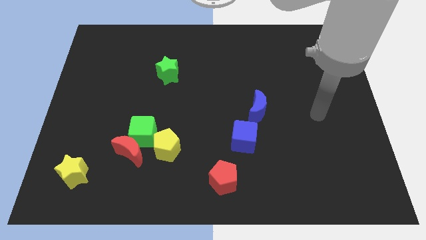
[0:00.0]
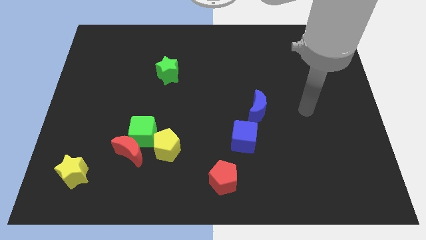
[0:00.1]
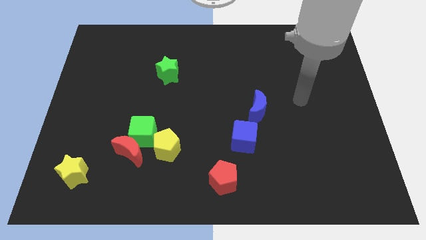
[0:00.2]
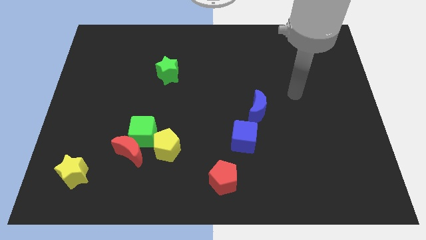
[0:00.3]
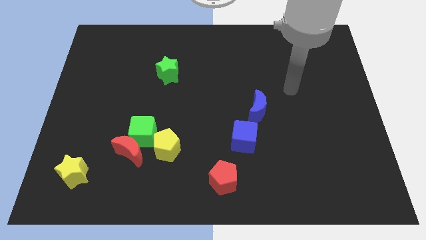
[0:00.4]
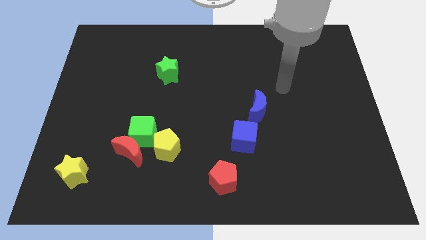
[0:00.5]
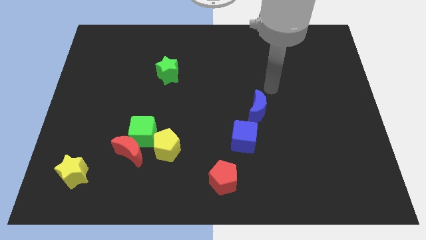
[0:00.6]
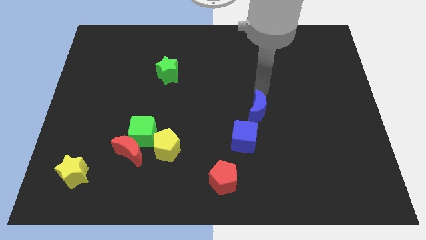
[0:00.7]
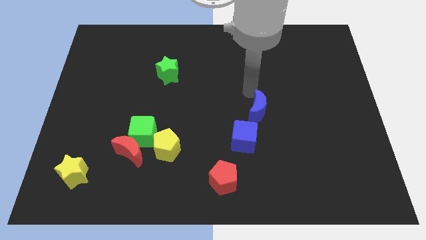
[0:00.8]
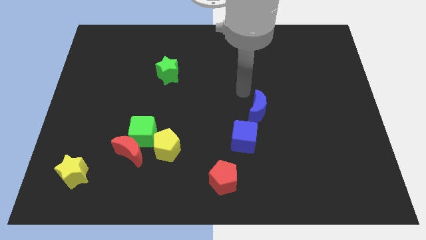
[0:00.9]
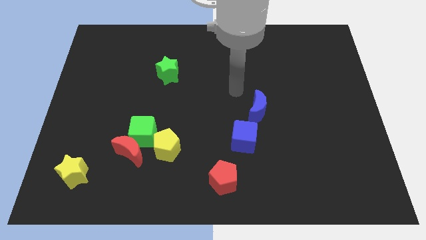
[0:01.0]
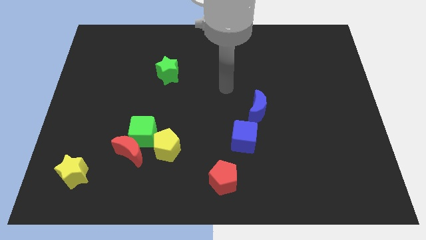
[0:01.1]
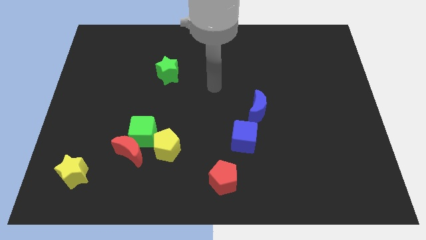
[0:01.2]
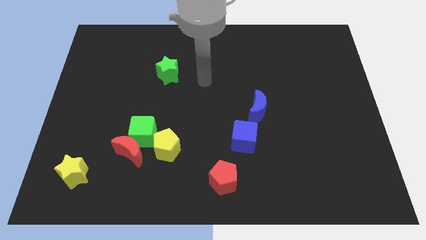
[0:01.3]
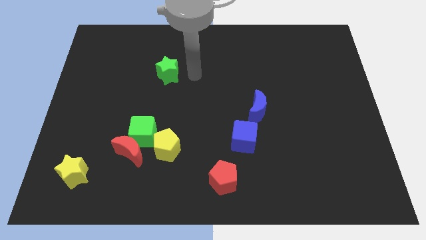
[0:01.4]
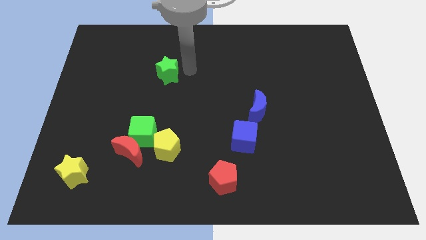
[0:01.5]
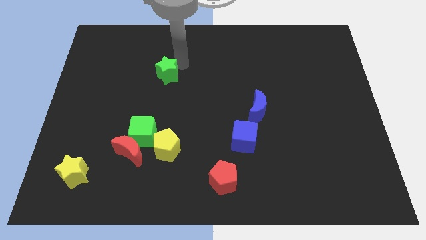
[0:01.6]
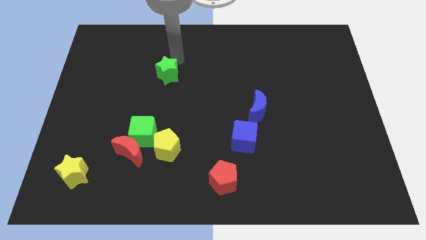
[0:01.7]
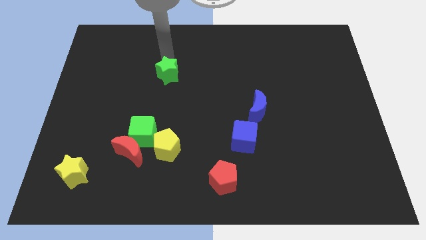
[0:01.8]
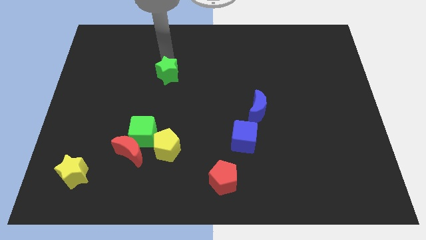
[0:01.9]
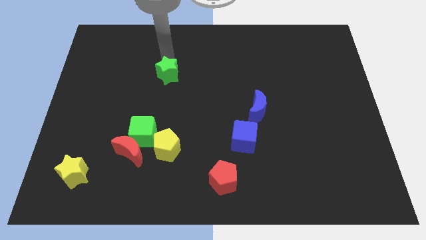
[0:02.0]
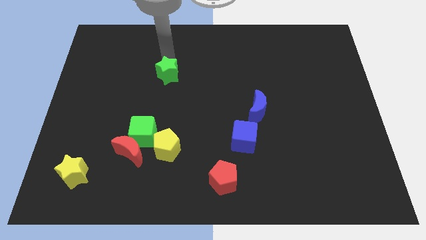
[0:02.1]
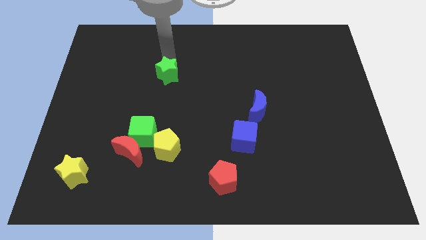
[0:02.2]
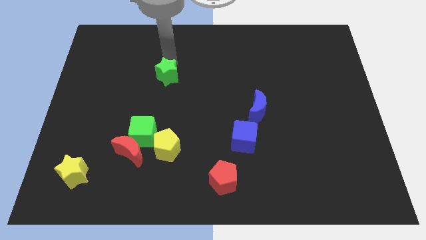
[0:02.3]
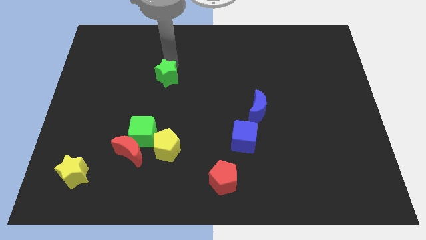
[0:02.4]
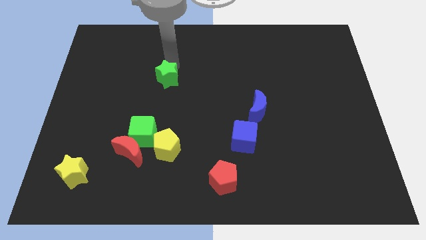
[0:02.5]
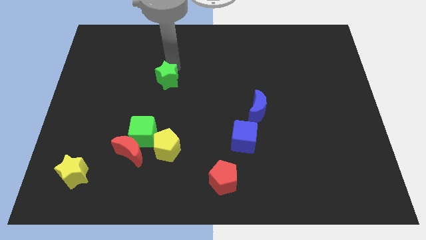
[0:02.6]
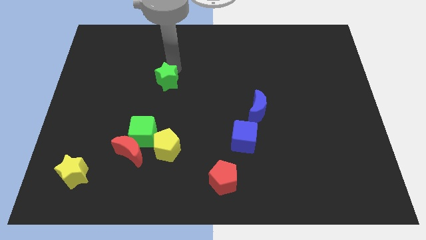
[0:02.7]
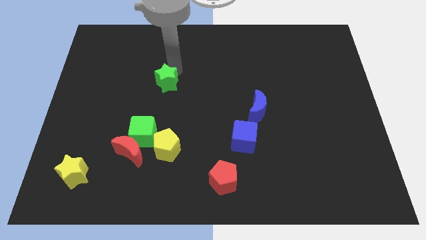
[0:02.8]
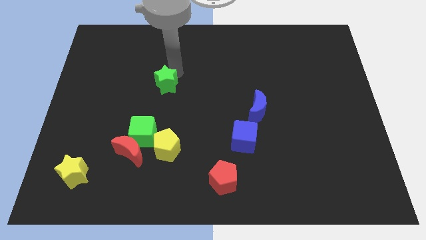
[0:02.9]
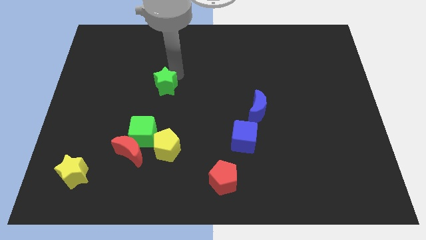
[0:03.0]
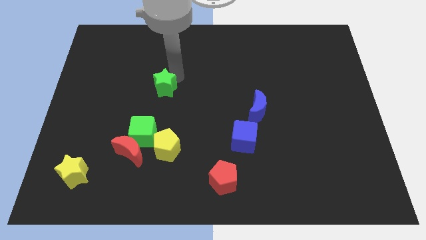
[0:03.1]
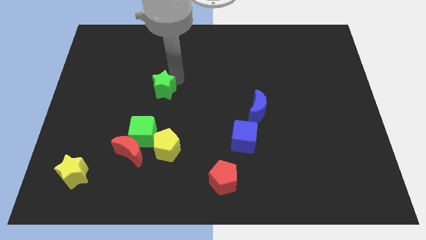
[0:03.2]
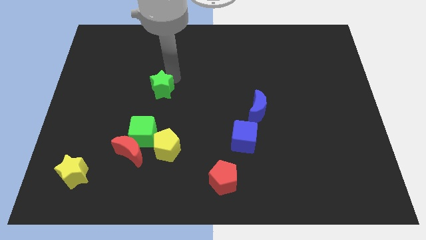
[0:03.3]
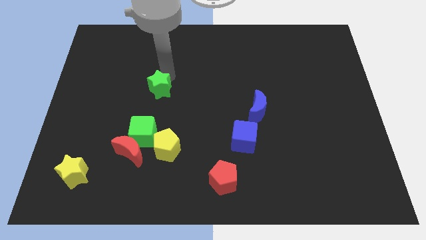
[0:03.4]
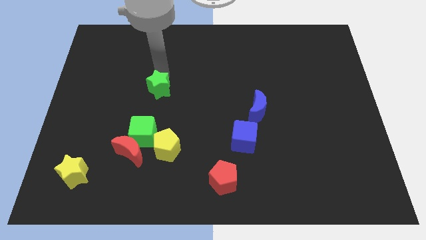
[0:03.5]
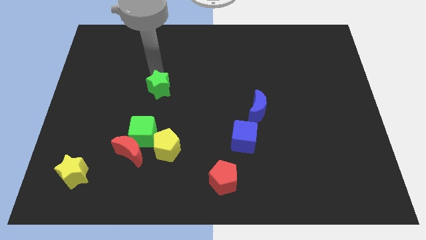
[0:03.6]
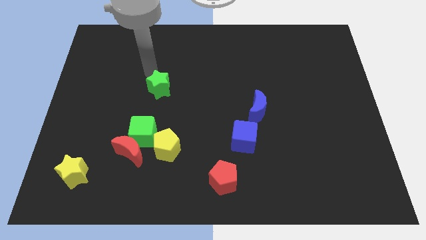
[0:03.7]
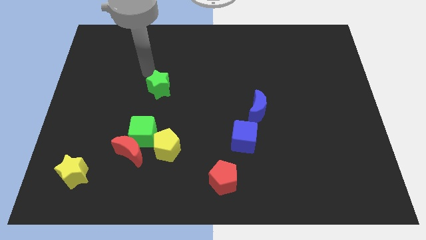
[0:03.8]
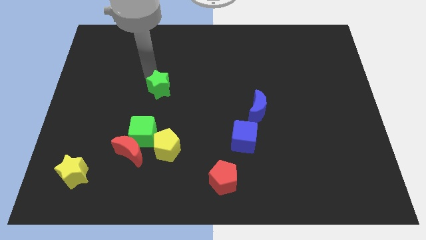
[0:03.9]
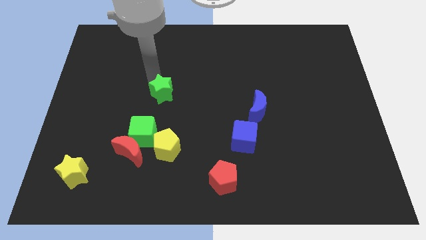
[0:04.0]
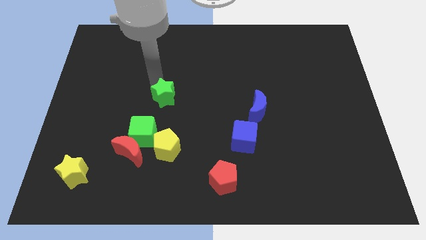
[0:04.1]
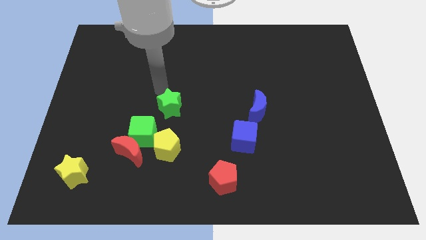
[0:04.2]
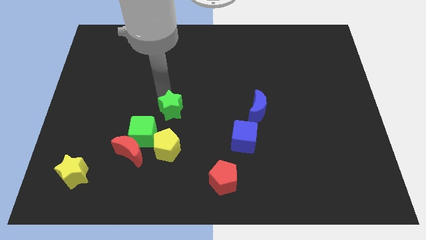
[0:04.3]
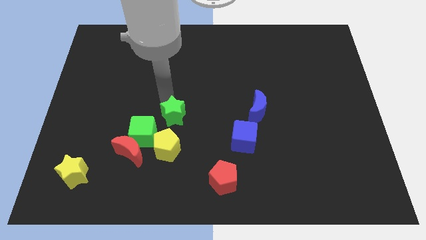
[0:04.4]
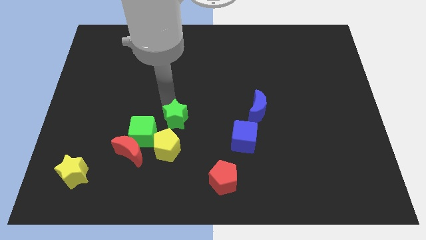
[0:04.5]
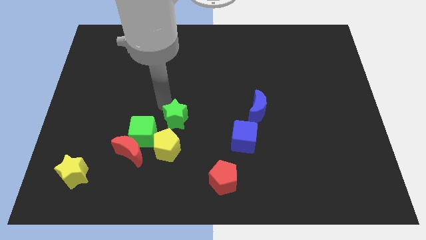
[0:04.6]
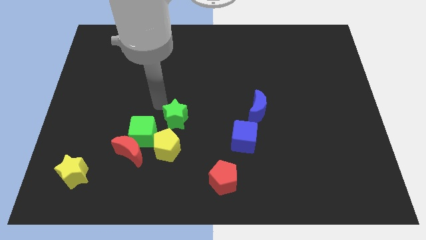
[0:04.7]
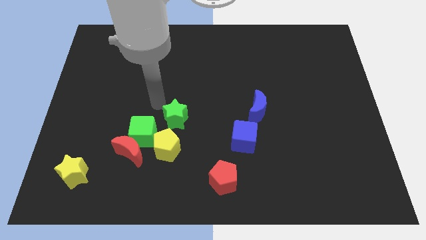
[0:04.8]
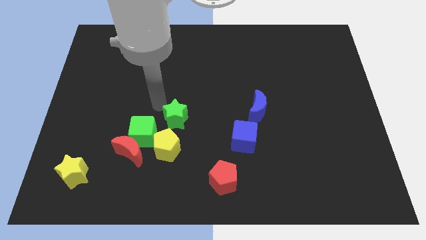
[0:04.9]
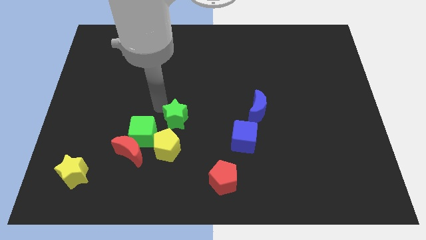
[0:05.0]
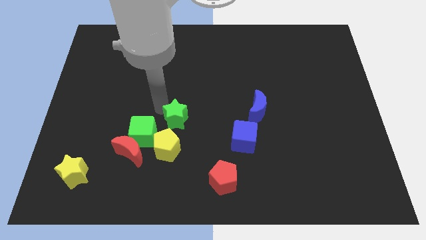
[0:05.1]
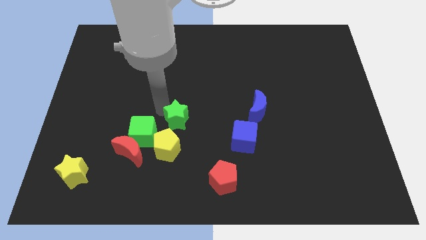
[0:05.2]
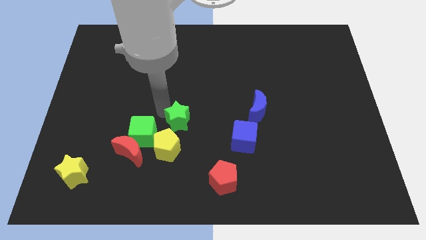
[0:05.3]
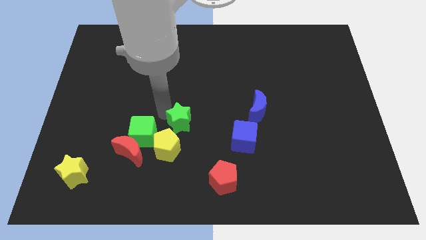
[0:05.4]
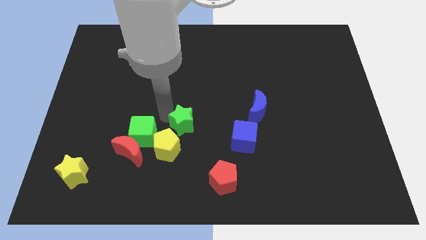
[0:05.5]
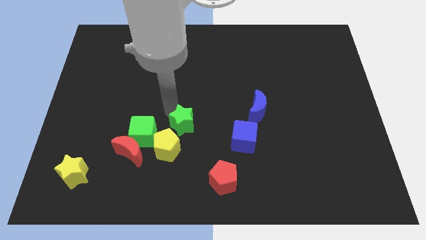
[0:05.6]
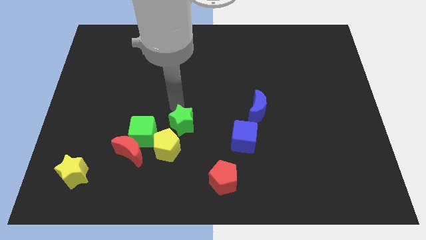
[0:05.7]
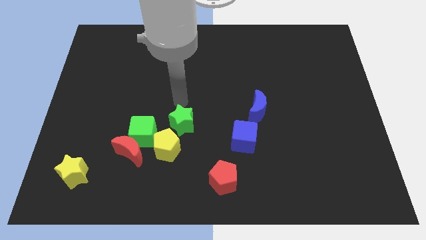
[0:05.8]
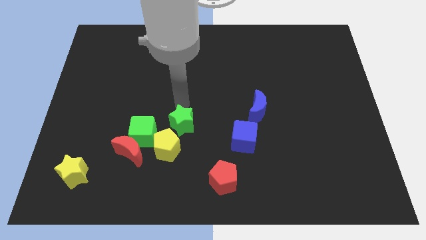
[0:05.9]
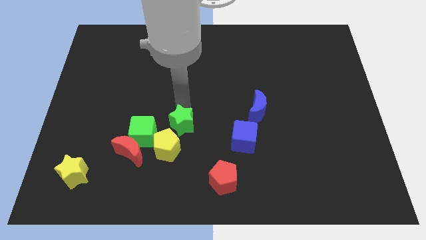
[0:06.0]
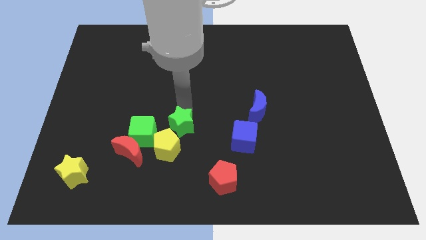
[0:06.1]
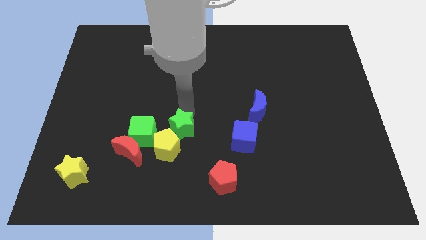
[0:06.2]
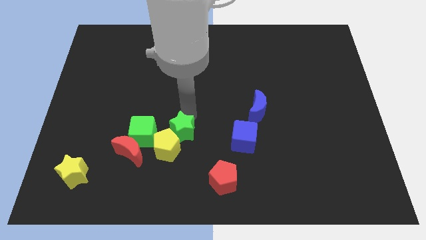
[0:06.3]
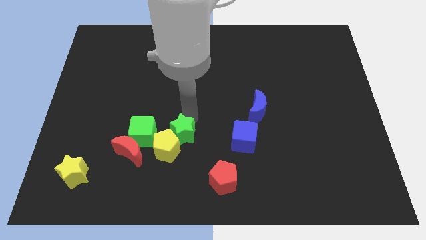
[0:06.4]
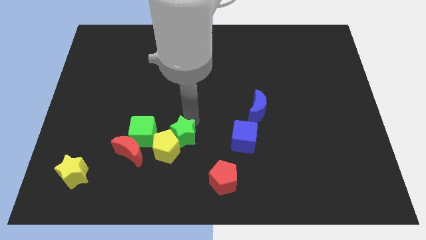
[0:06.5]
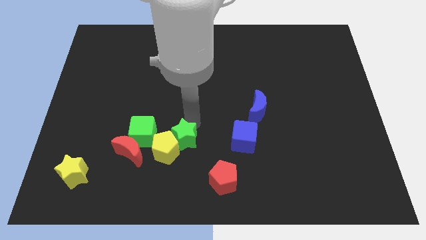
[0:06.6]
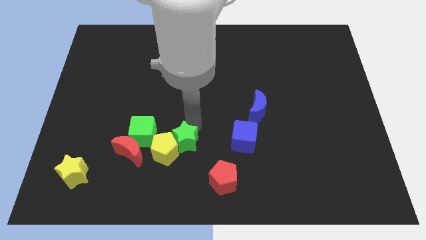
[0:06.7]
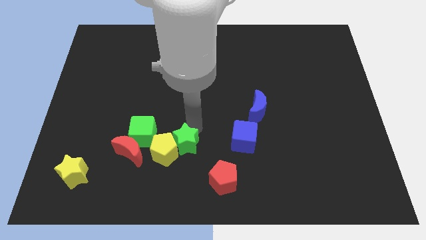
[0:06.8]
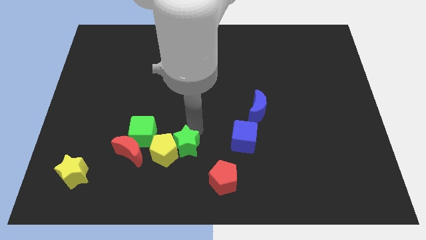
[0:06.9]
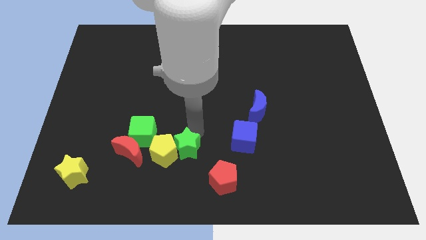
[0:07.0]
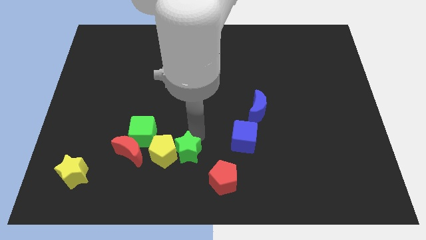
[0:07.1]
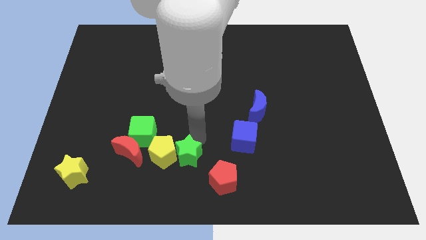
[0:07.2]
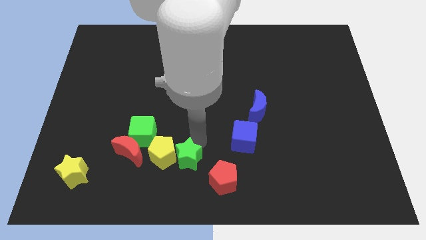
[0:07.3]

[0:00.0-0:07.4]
move the green star to the bottom

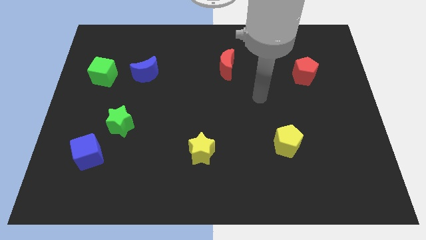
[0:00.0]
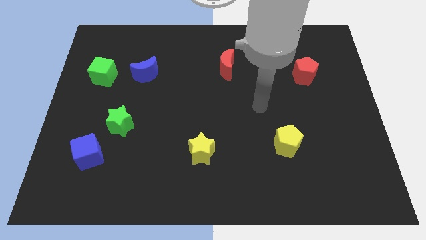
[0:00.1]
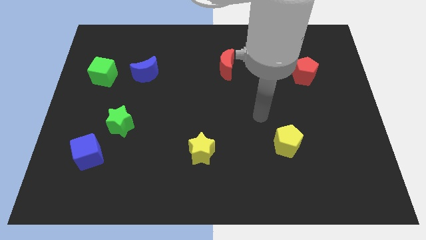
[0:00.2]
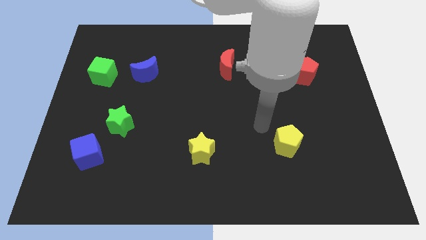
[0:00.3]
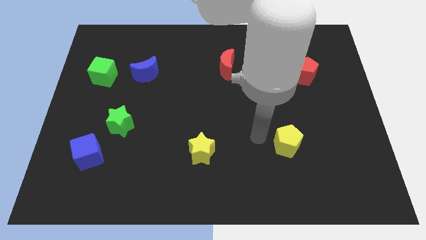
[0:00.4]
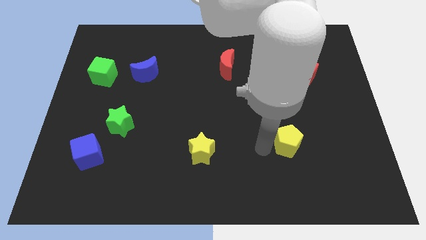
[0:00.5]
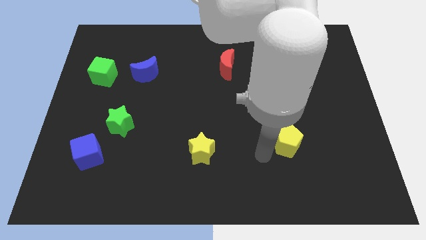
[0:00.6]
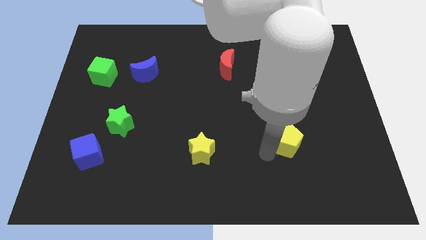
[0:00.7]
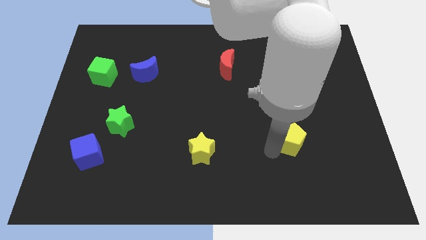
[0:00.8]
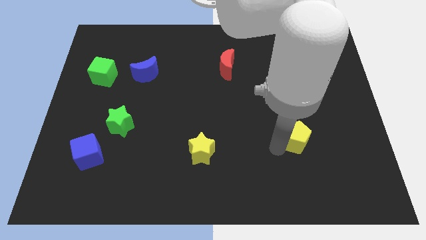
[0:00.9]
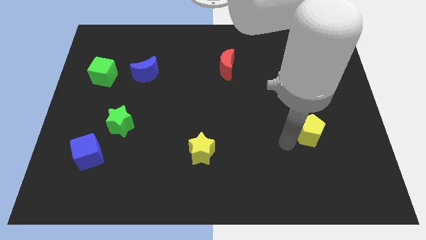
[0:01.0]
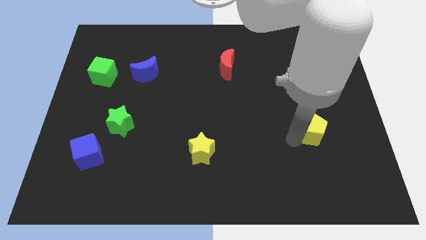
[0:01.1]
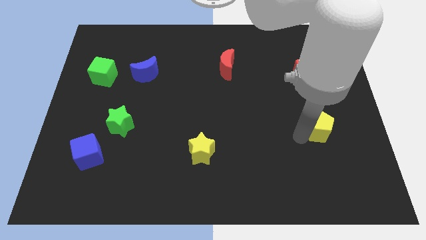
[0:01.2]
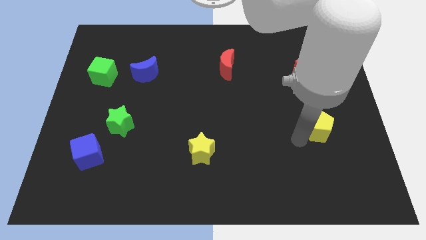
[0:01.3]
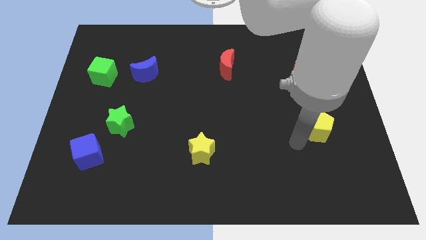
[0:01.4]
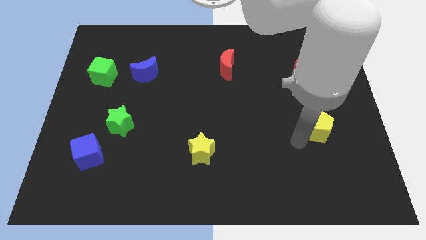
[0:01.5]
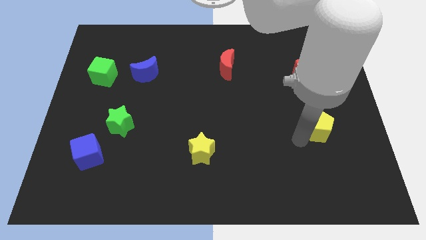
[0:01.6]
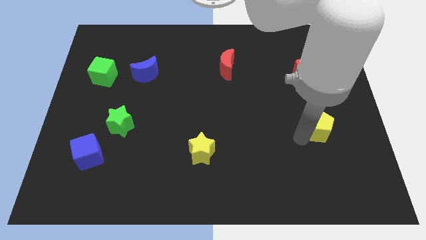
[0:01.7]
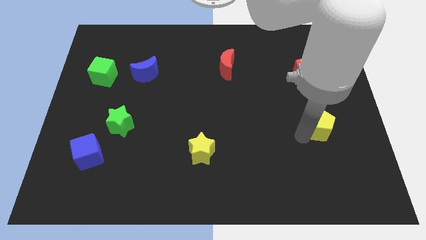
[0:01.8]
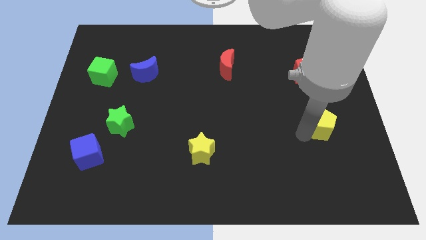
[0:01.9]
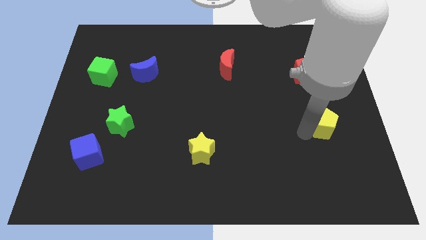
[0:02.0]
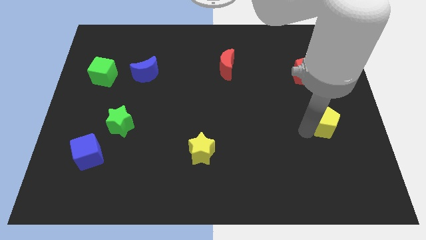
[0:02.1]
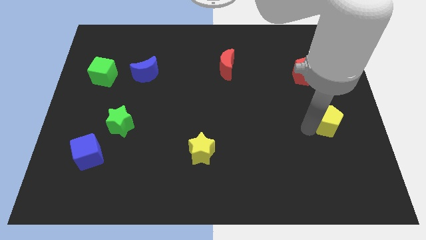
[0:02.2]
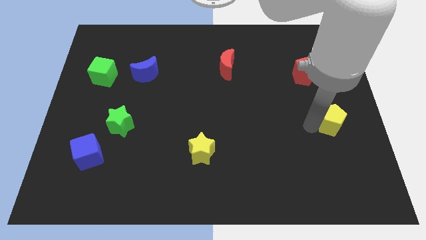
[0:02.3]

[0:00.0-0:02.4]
slide the yellow pentagon to the right side of the board
